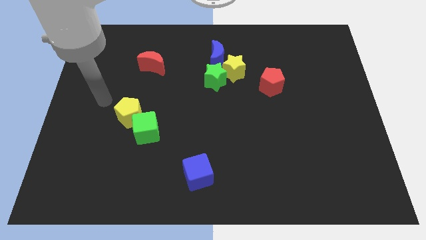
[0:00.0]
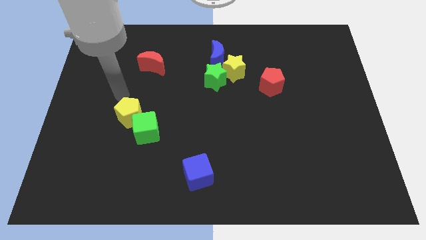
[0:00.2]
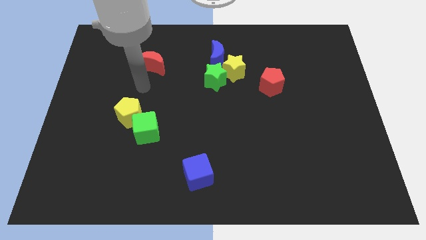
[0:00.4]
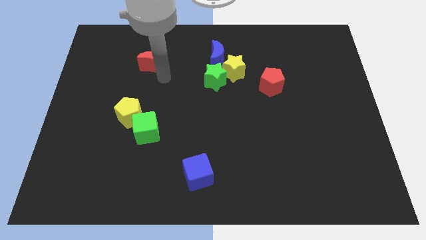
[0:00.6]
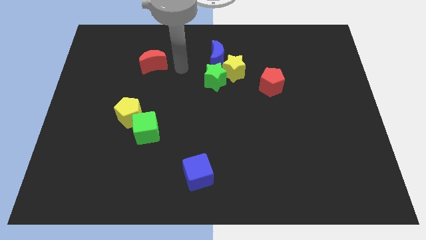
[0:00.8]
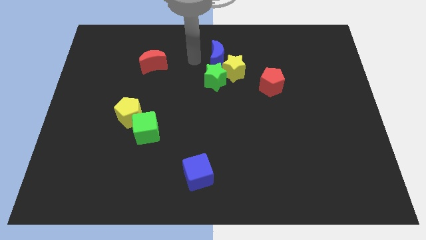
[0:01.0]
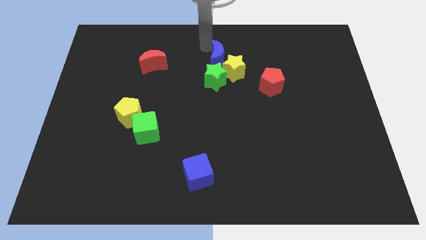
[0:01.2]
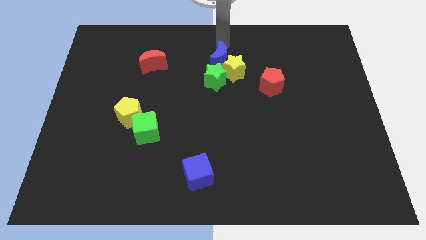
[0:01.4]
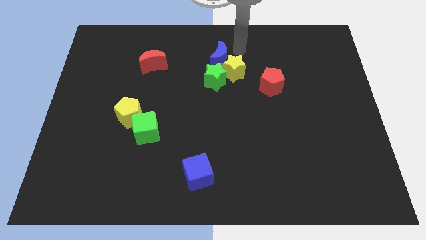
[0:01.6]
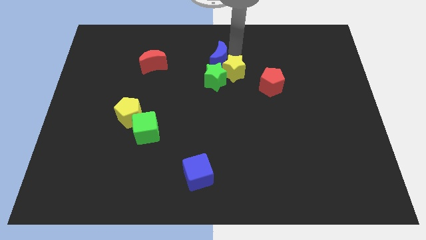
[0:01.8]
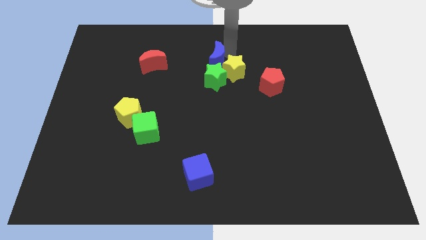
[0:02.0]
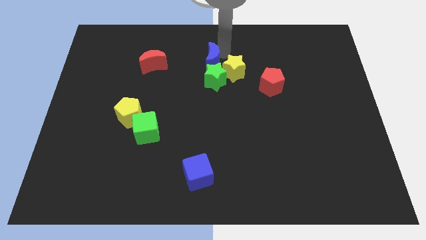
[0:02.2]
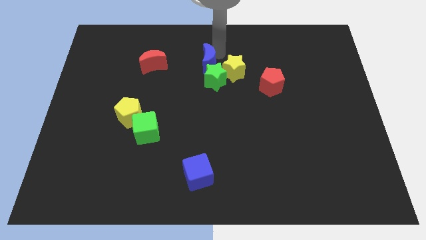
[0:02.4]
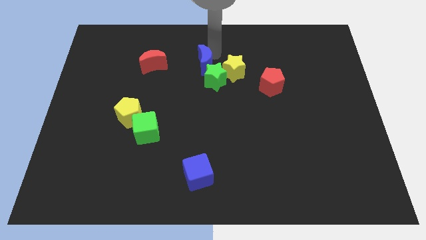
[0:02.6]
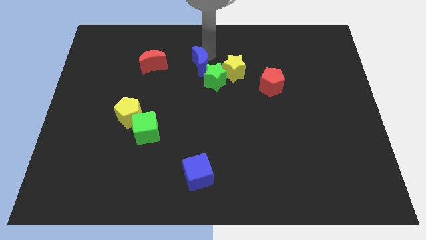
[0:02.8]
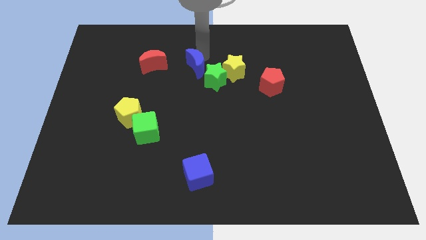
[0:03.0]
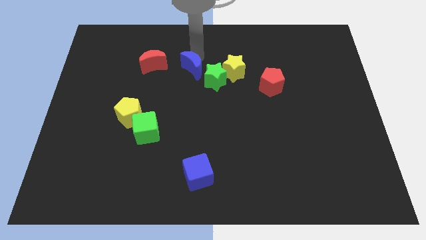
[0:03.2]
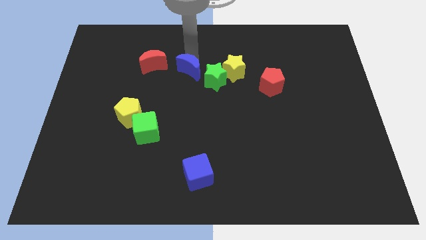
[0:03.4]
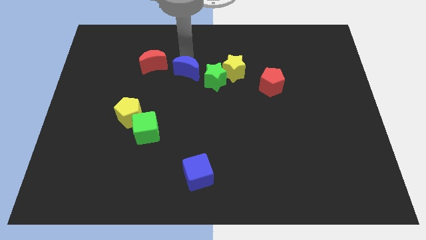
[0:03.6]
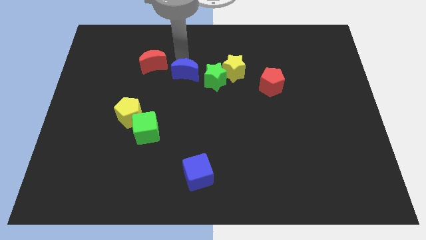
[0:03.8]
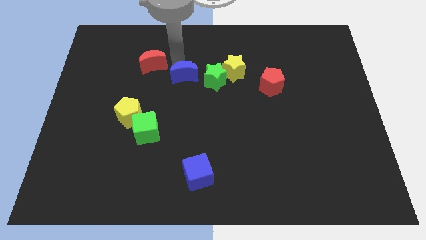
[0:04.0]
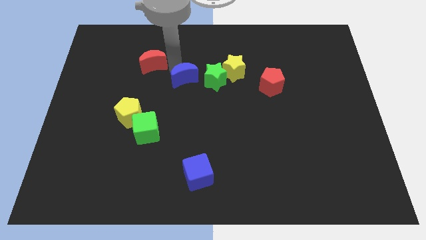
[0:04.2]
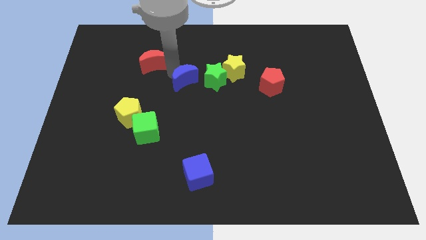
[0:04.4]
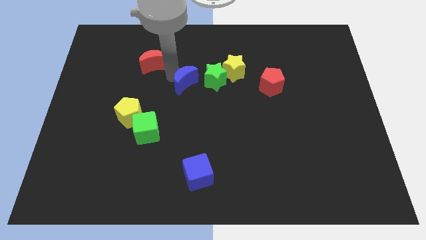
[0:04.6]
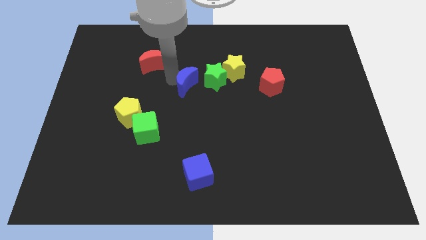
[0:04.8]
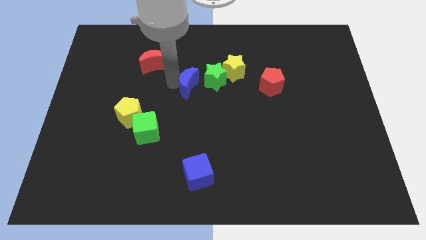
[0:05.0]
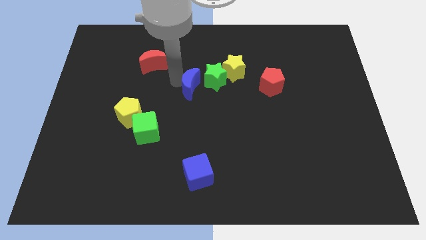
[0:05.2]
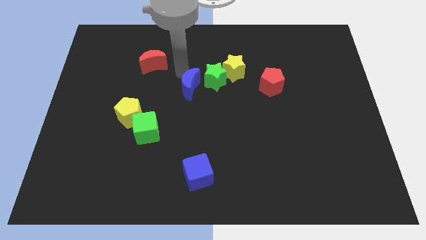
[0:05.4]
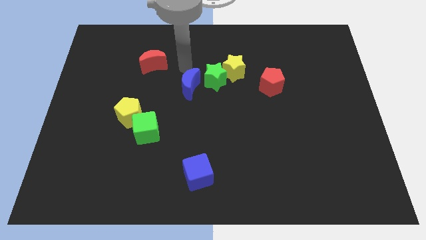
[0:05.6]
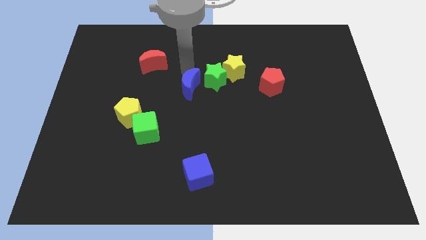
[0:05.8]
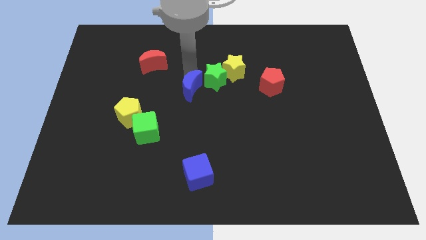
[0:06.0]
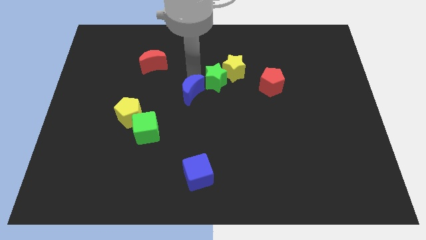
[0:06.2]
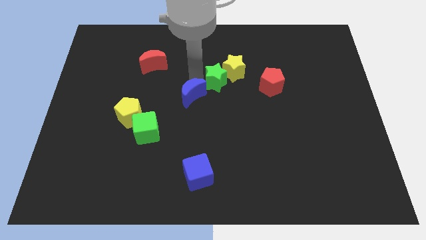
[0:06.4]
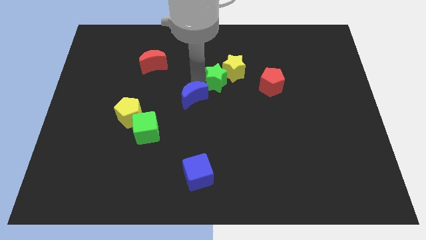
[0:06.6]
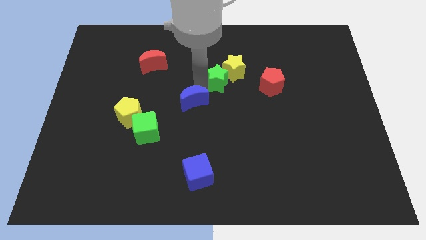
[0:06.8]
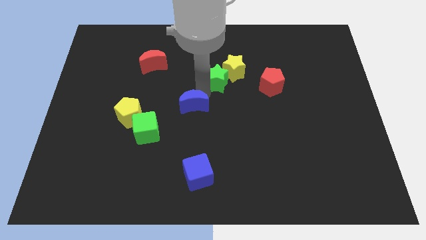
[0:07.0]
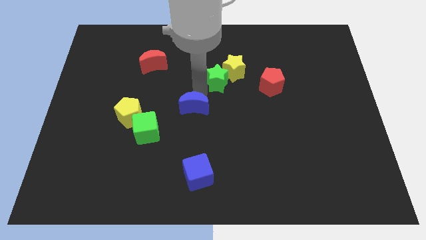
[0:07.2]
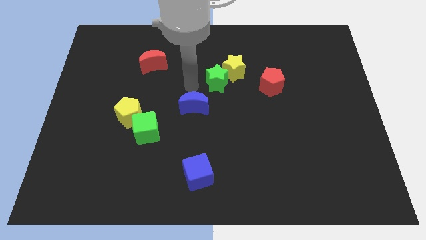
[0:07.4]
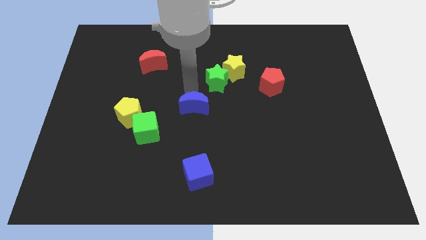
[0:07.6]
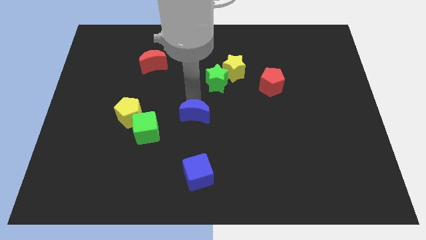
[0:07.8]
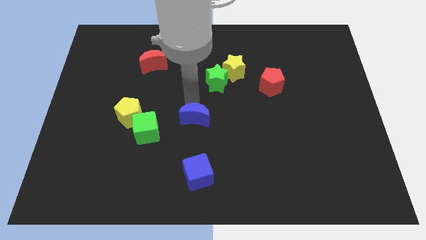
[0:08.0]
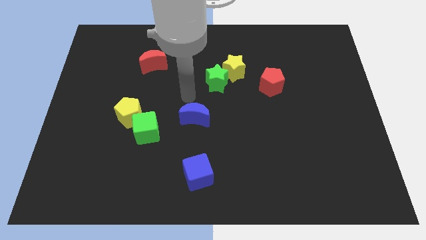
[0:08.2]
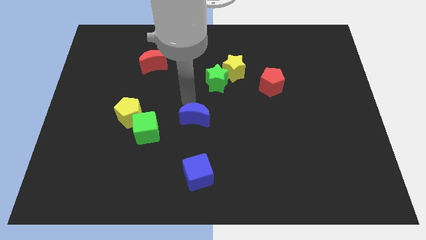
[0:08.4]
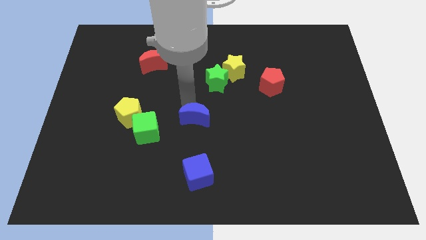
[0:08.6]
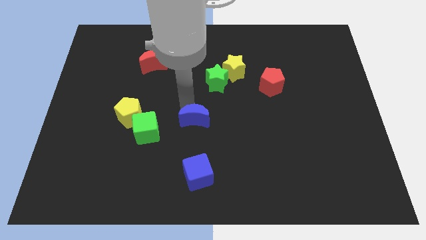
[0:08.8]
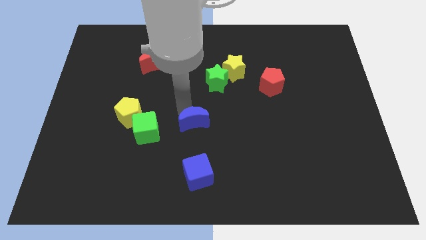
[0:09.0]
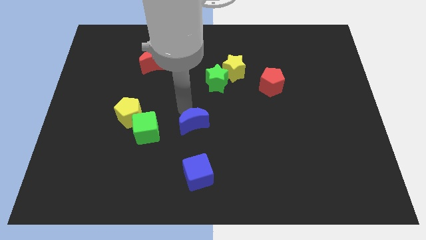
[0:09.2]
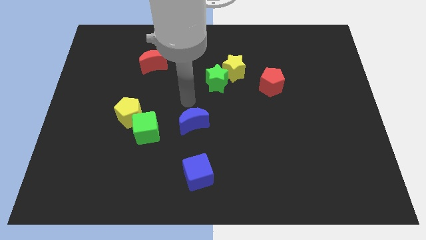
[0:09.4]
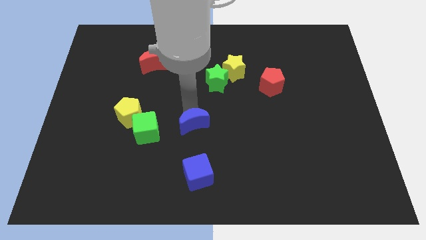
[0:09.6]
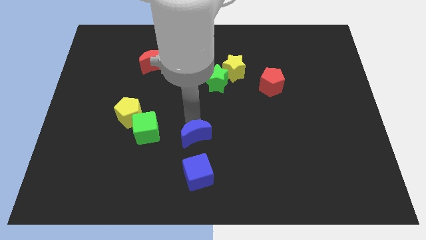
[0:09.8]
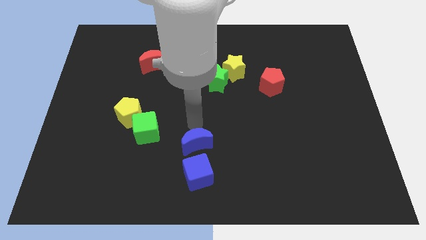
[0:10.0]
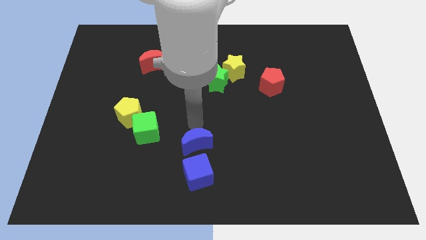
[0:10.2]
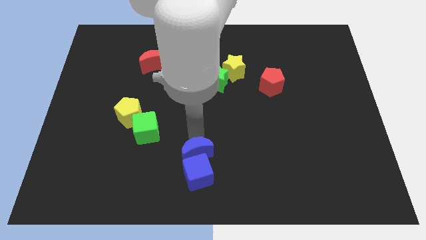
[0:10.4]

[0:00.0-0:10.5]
put the blue moon towards the blue cube
